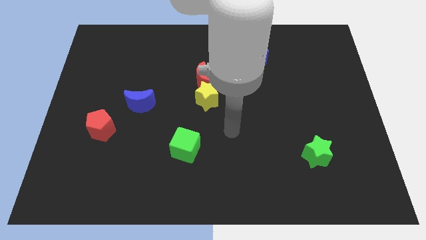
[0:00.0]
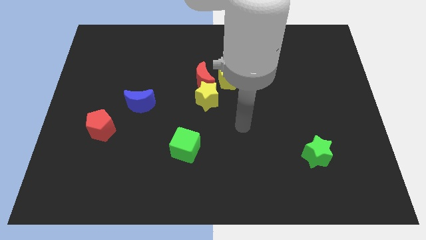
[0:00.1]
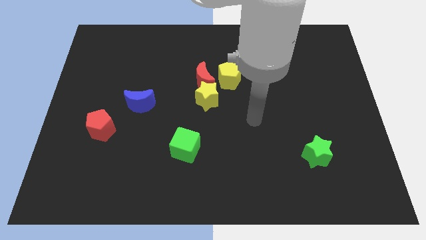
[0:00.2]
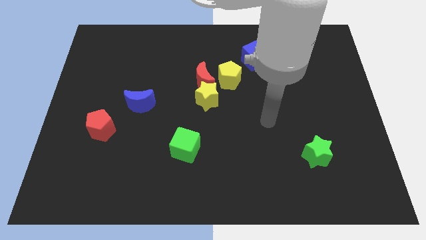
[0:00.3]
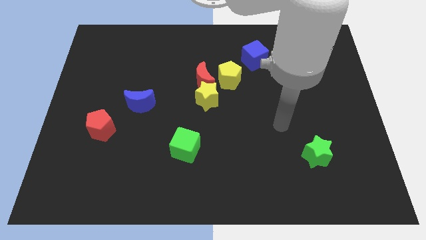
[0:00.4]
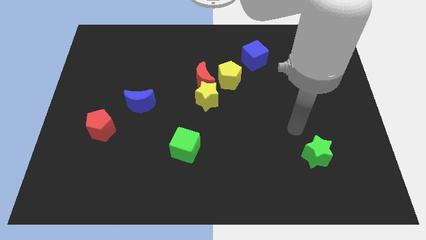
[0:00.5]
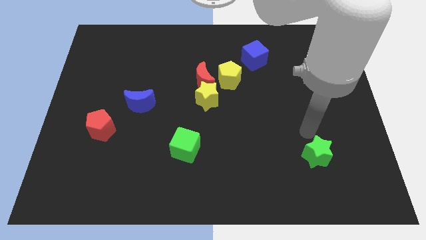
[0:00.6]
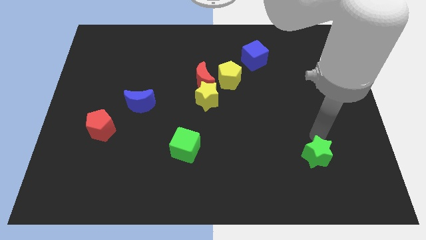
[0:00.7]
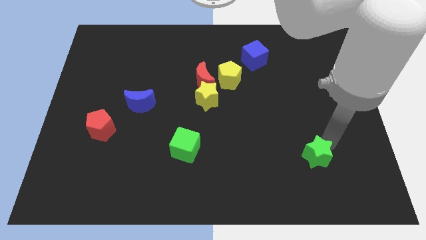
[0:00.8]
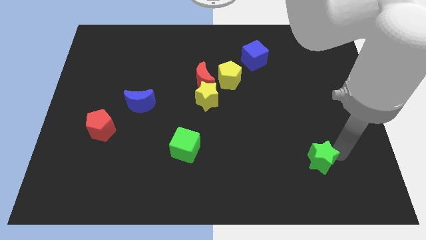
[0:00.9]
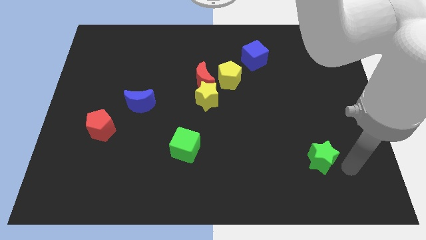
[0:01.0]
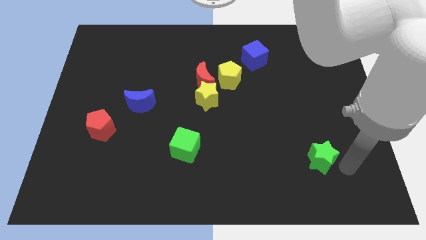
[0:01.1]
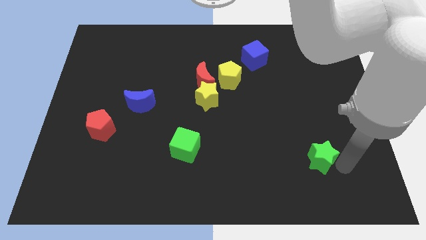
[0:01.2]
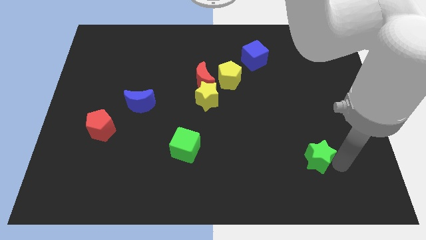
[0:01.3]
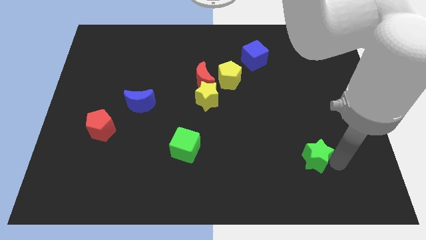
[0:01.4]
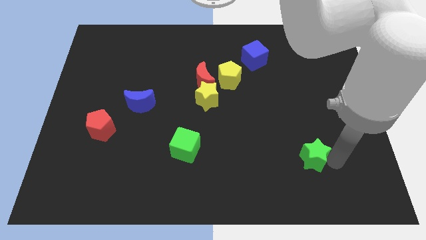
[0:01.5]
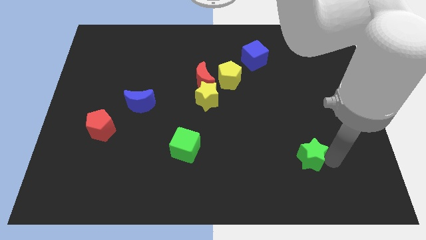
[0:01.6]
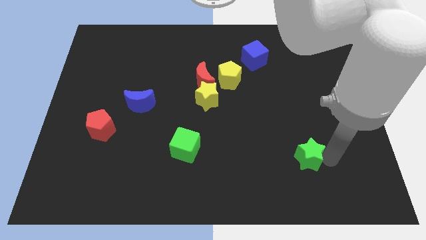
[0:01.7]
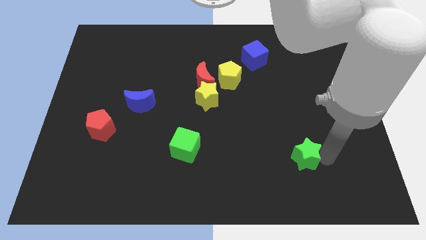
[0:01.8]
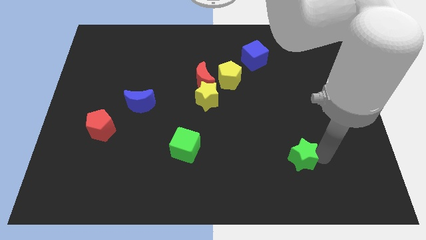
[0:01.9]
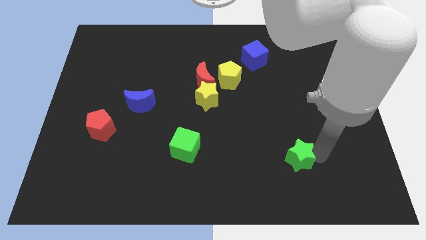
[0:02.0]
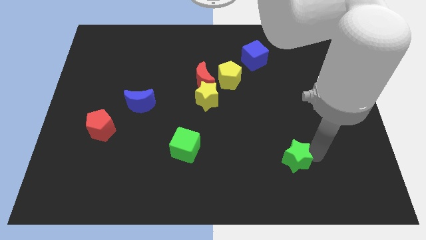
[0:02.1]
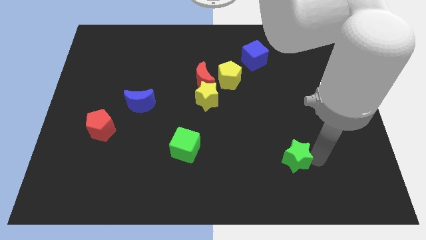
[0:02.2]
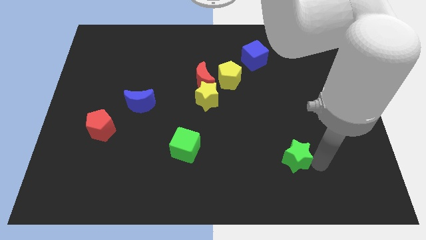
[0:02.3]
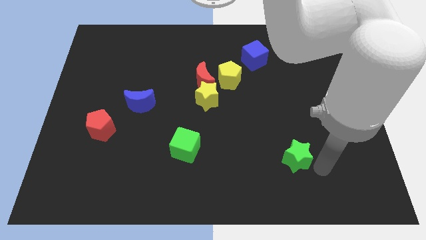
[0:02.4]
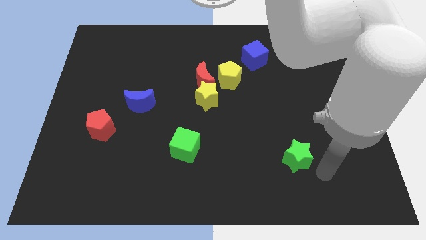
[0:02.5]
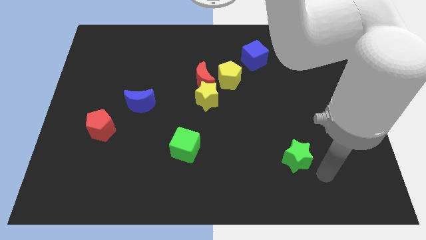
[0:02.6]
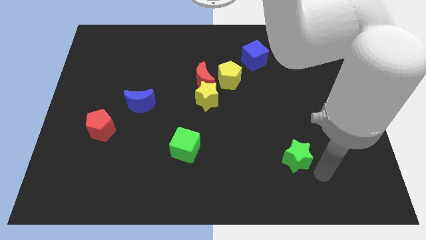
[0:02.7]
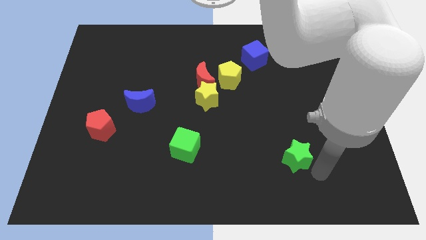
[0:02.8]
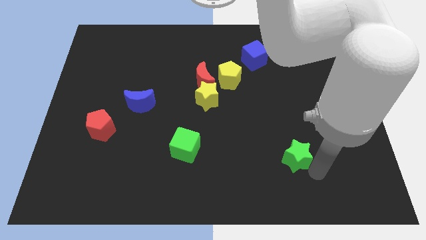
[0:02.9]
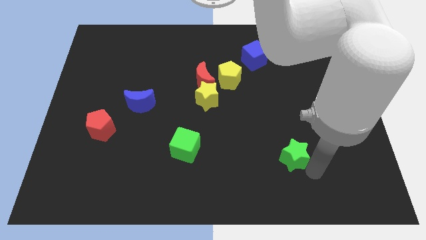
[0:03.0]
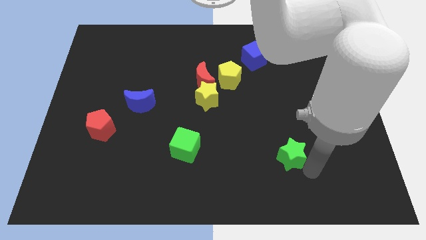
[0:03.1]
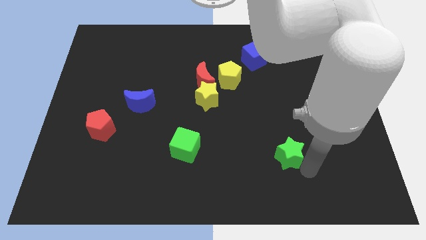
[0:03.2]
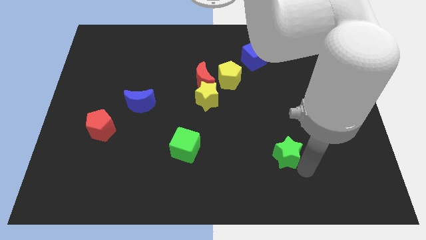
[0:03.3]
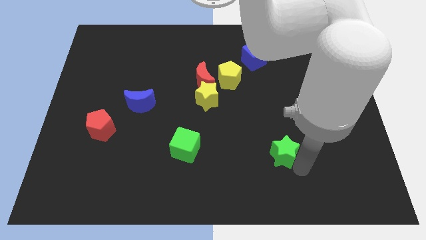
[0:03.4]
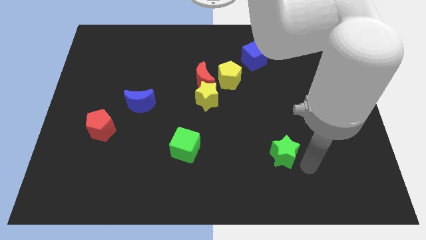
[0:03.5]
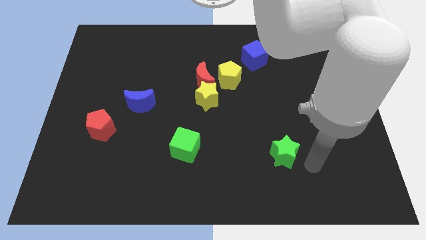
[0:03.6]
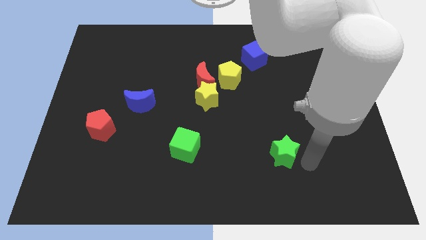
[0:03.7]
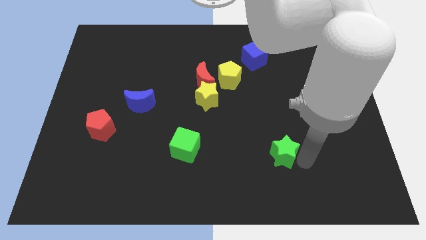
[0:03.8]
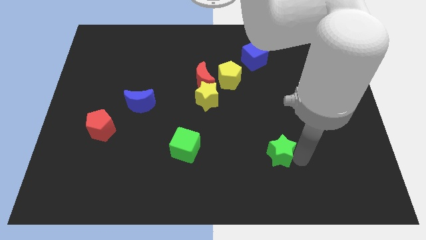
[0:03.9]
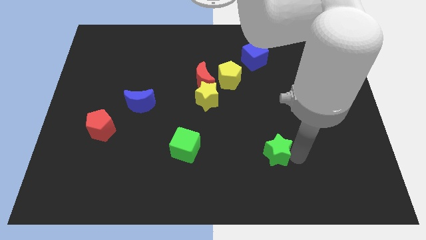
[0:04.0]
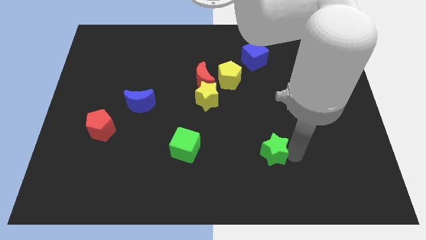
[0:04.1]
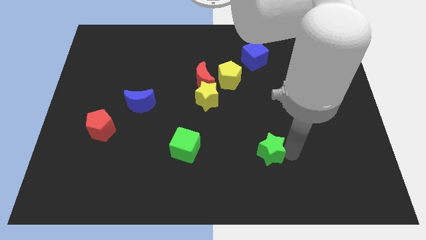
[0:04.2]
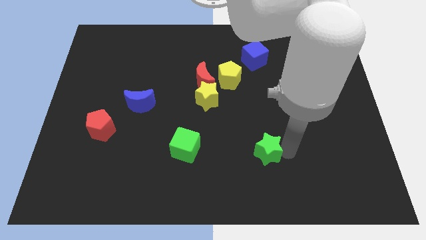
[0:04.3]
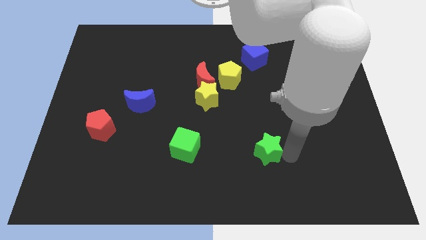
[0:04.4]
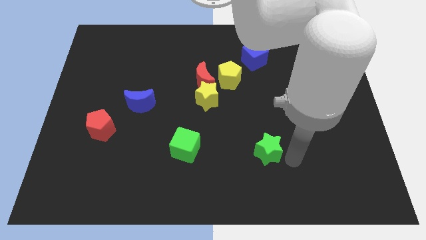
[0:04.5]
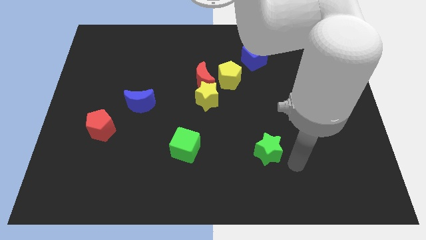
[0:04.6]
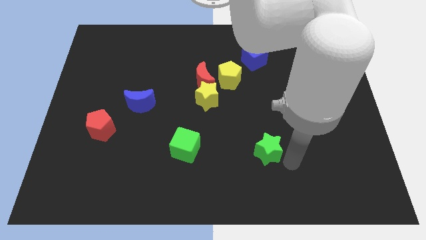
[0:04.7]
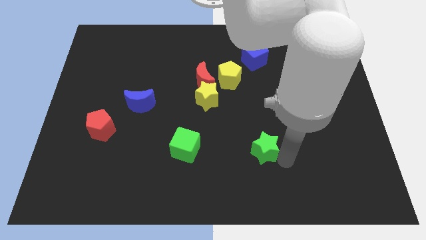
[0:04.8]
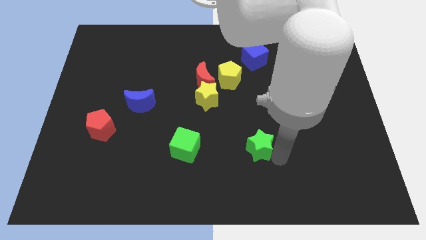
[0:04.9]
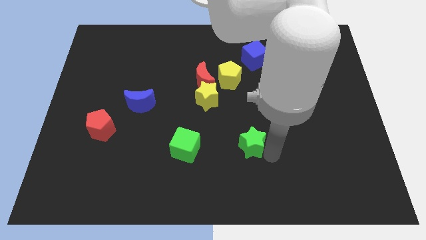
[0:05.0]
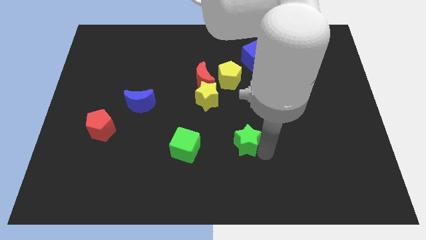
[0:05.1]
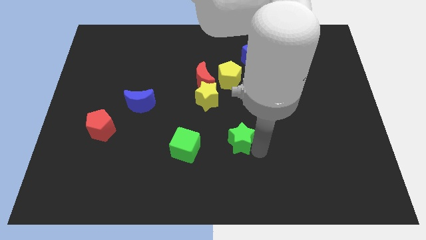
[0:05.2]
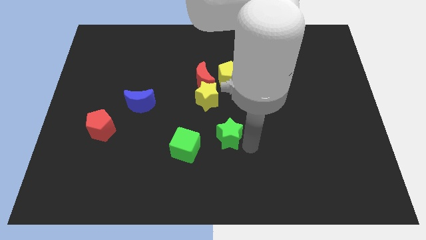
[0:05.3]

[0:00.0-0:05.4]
put the green star below the yellow star

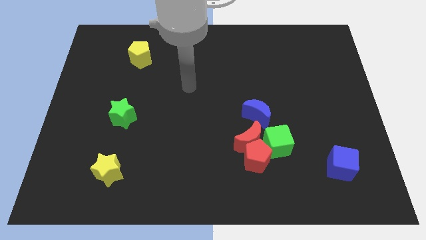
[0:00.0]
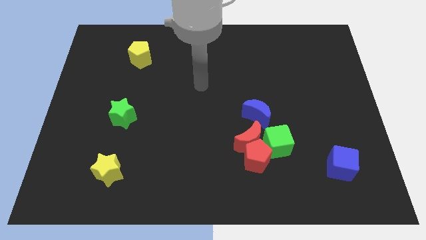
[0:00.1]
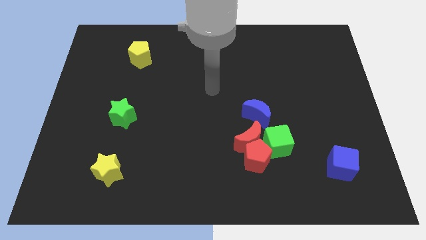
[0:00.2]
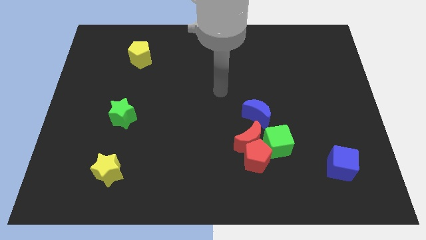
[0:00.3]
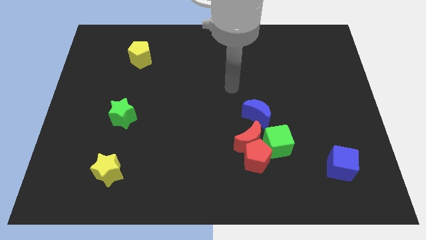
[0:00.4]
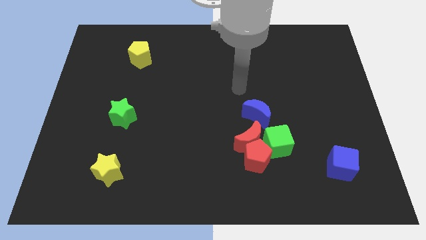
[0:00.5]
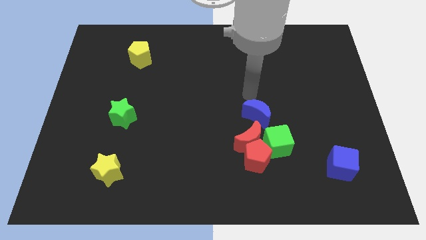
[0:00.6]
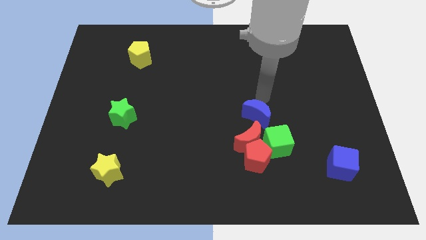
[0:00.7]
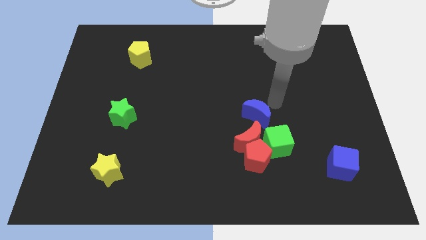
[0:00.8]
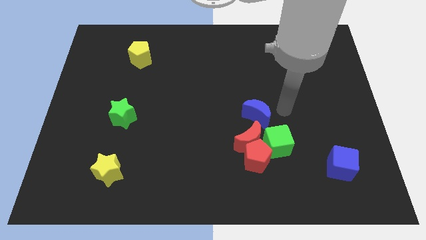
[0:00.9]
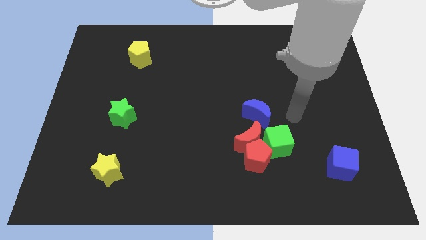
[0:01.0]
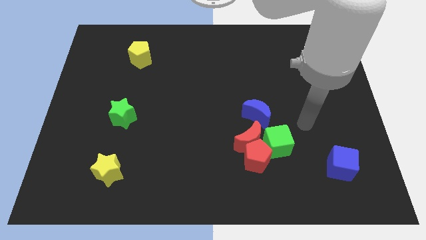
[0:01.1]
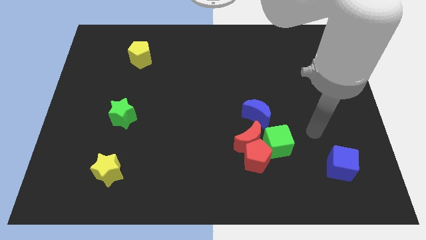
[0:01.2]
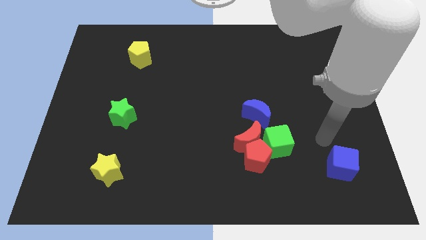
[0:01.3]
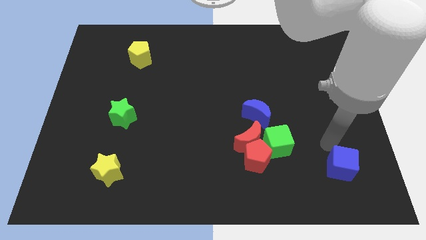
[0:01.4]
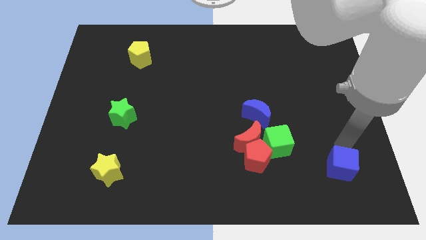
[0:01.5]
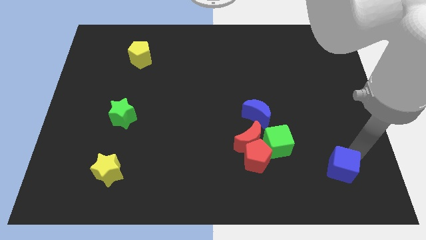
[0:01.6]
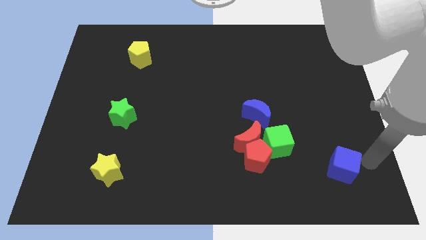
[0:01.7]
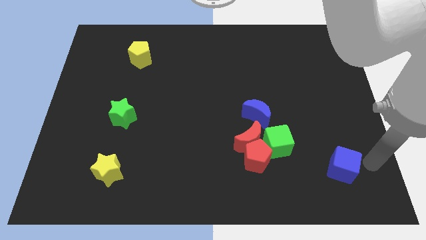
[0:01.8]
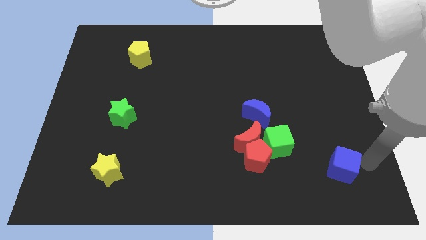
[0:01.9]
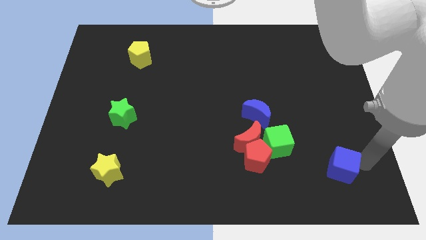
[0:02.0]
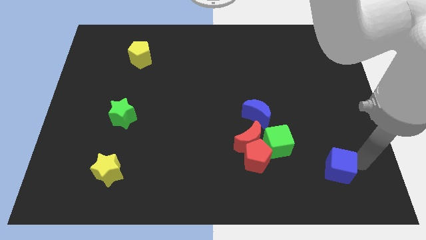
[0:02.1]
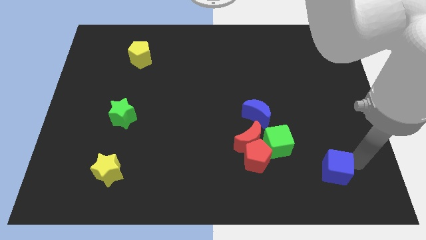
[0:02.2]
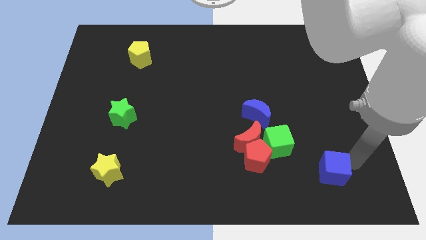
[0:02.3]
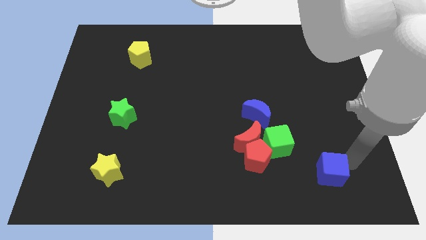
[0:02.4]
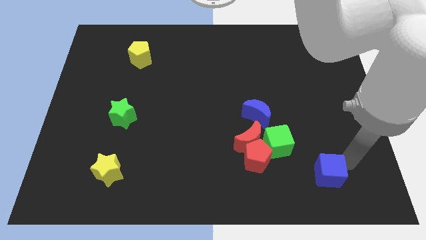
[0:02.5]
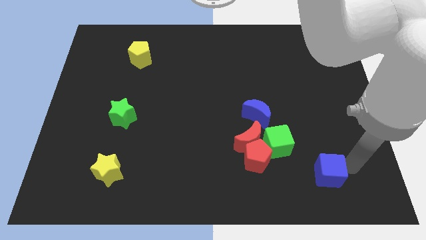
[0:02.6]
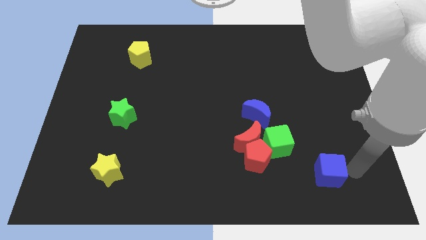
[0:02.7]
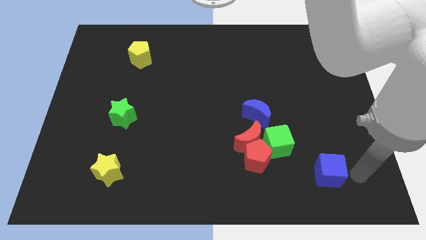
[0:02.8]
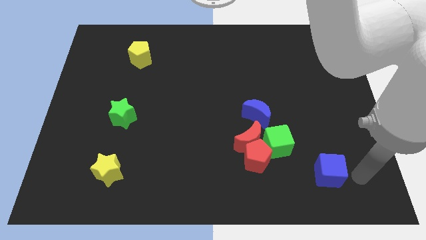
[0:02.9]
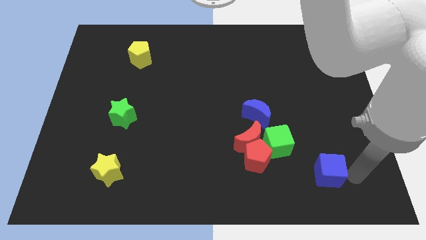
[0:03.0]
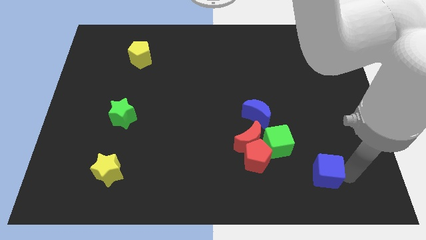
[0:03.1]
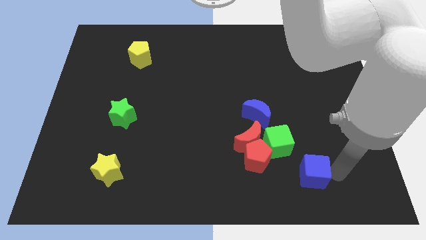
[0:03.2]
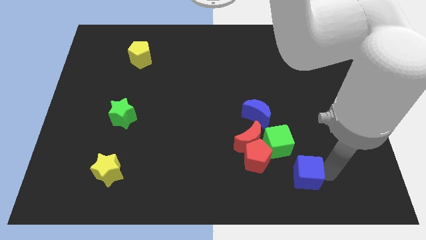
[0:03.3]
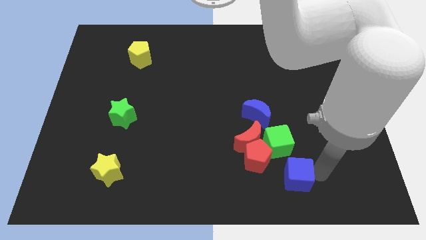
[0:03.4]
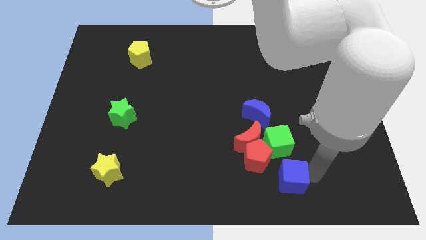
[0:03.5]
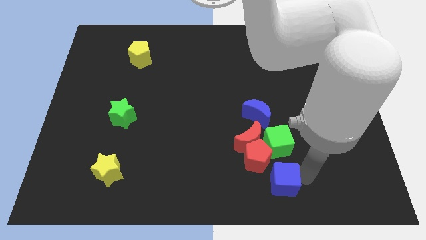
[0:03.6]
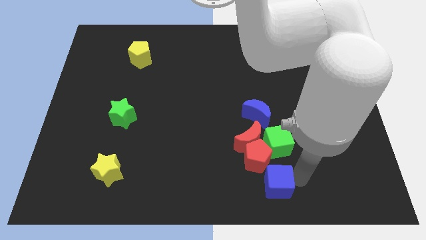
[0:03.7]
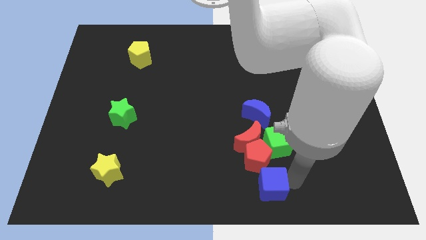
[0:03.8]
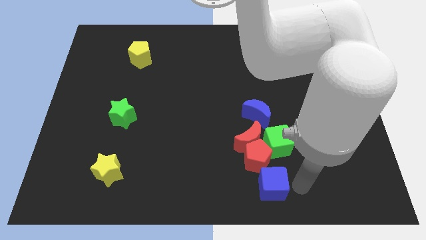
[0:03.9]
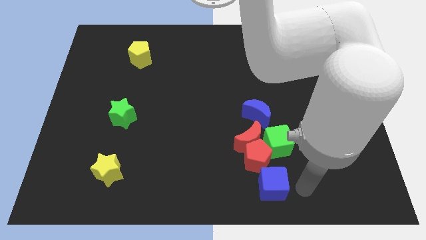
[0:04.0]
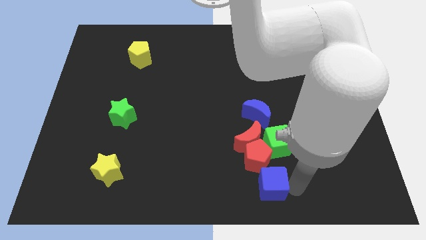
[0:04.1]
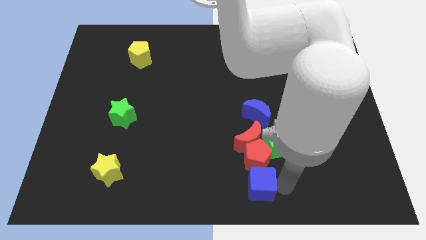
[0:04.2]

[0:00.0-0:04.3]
move the blue cube diagonally down and to the left of the red pentagon
